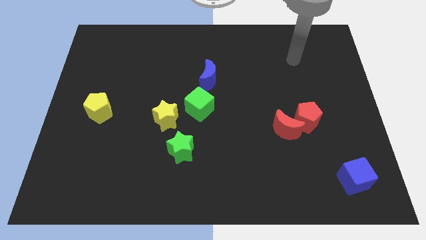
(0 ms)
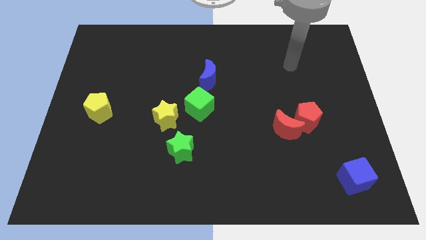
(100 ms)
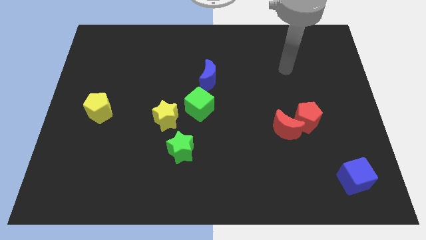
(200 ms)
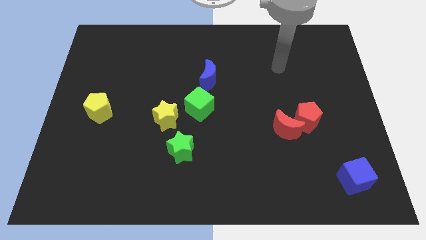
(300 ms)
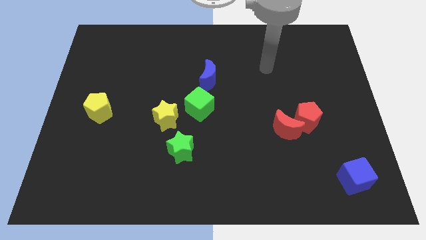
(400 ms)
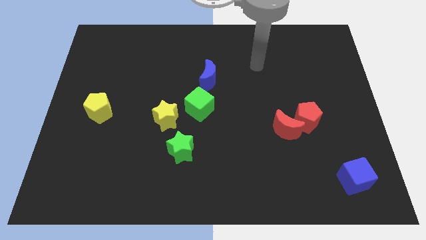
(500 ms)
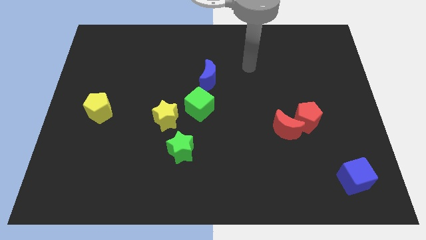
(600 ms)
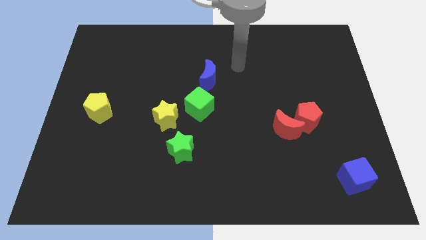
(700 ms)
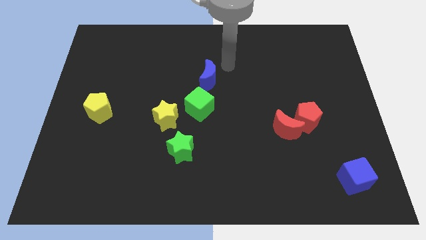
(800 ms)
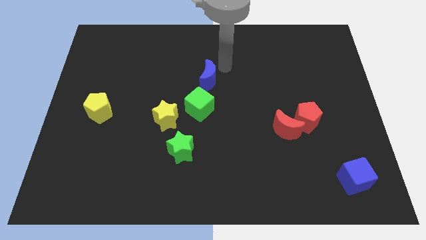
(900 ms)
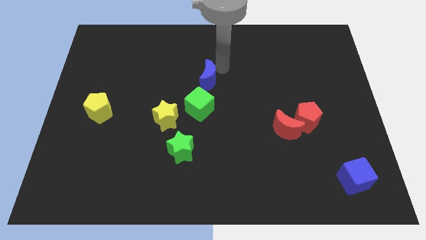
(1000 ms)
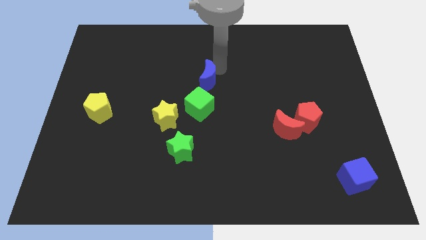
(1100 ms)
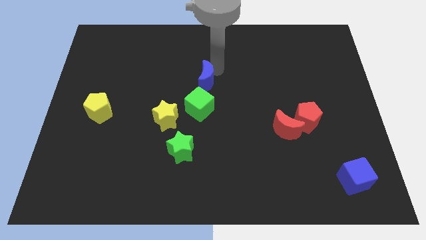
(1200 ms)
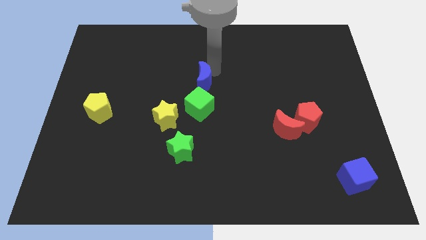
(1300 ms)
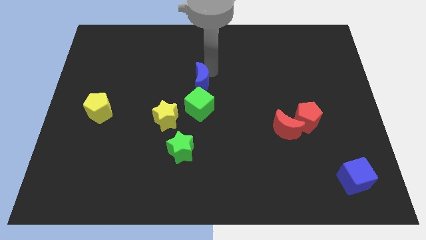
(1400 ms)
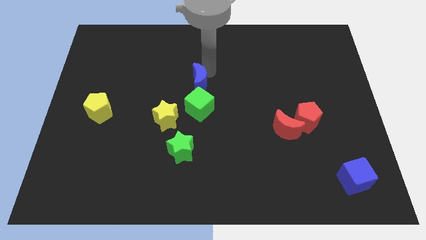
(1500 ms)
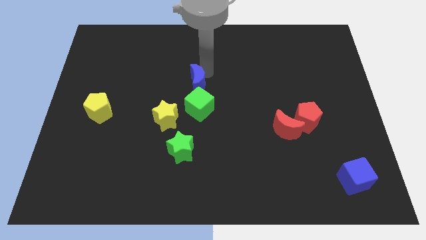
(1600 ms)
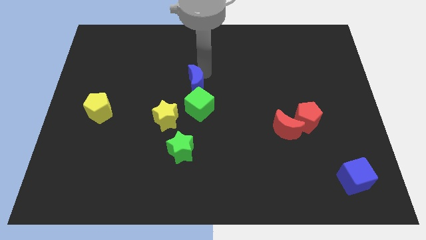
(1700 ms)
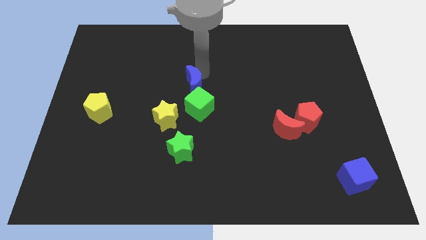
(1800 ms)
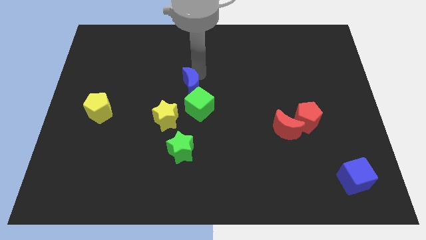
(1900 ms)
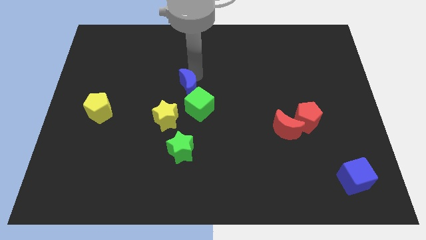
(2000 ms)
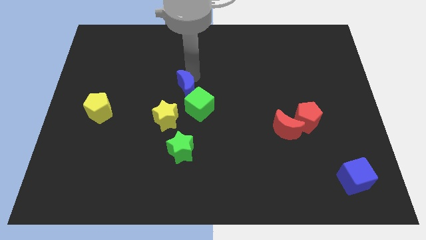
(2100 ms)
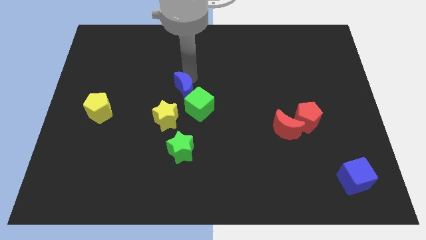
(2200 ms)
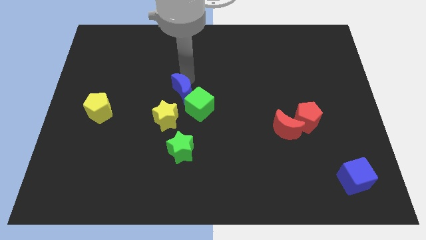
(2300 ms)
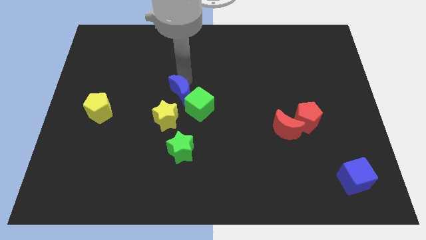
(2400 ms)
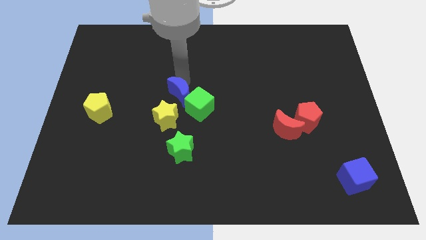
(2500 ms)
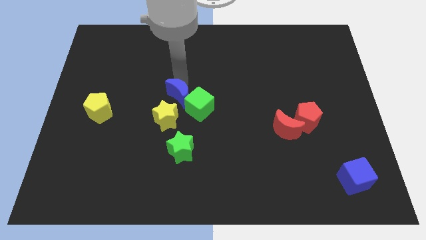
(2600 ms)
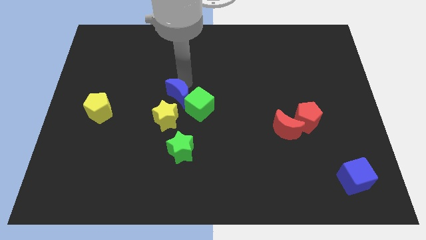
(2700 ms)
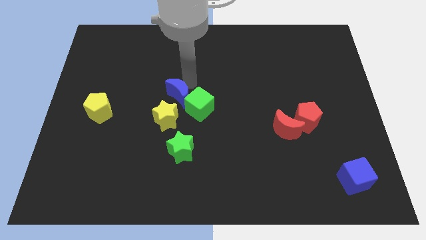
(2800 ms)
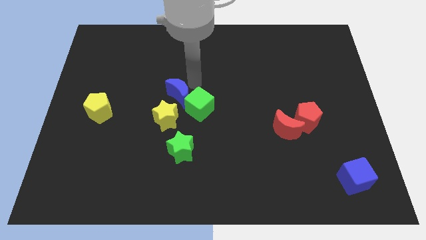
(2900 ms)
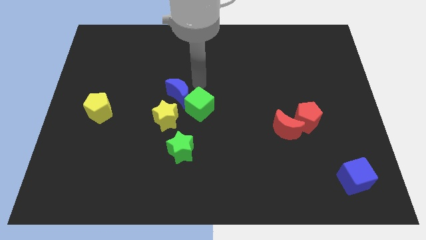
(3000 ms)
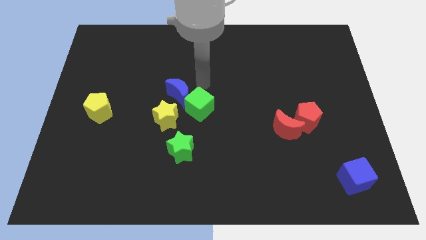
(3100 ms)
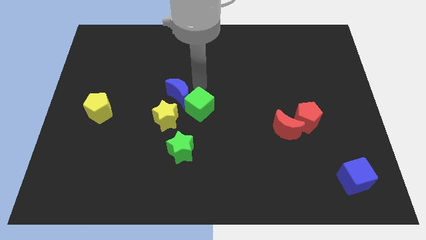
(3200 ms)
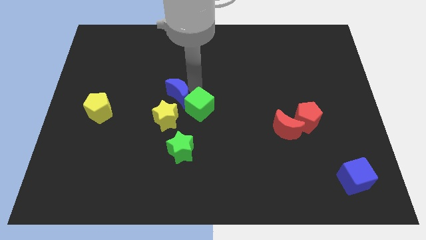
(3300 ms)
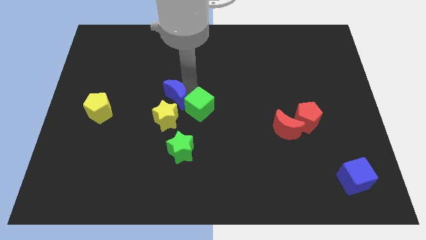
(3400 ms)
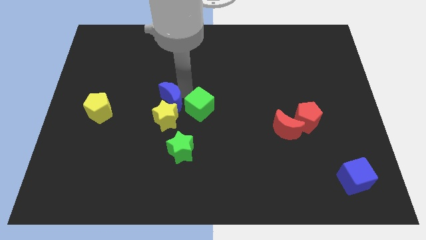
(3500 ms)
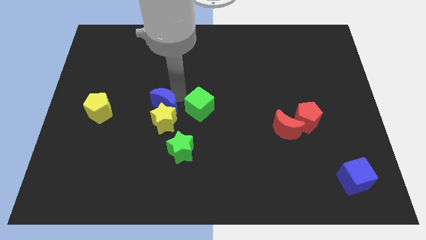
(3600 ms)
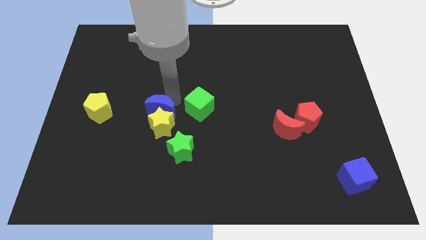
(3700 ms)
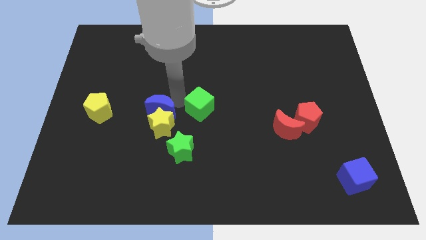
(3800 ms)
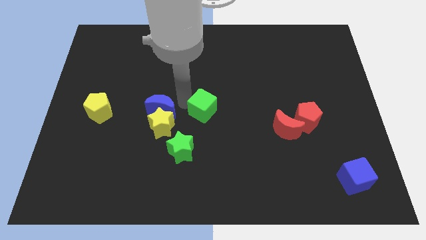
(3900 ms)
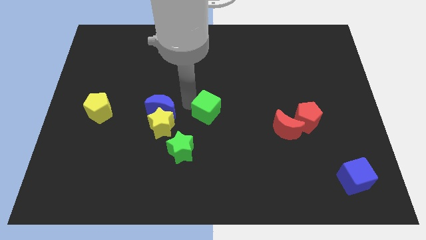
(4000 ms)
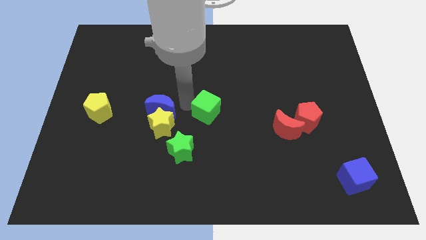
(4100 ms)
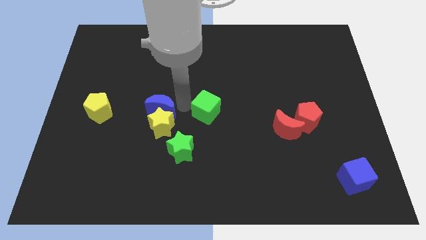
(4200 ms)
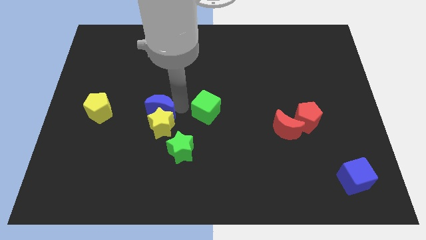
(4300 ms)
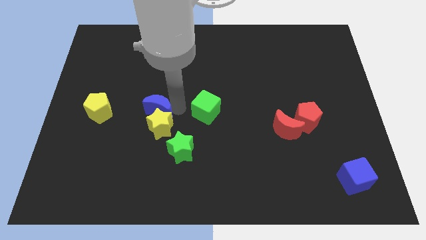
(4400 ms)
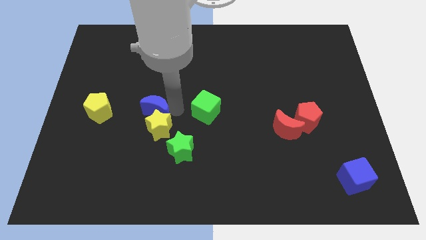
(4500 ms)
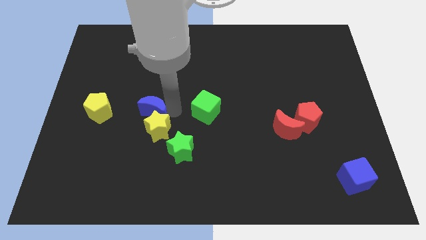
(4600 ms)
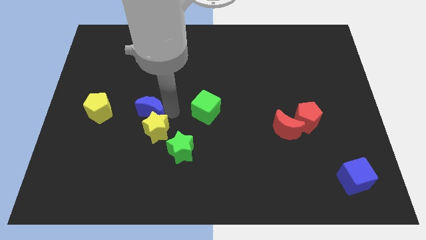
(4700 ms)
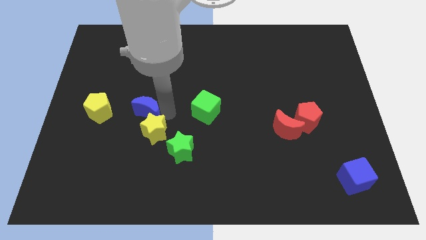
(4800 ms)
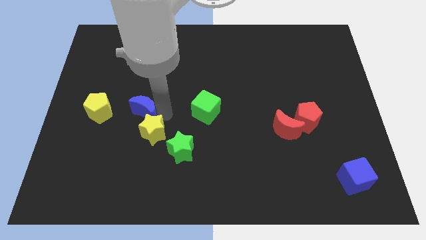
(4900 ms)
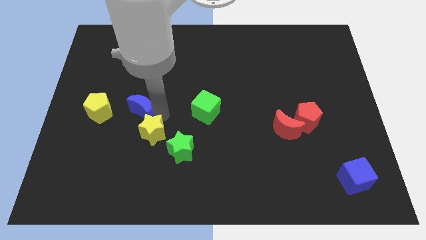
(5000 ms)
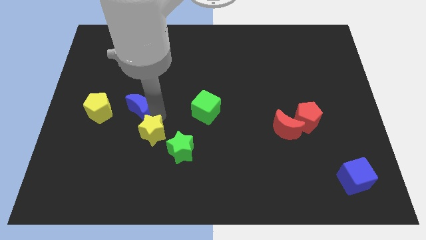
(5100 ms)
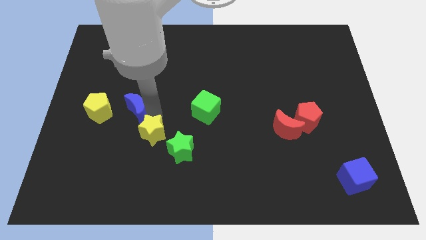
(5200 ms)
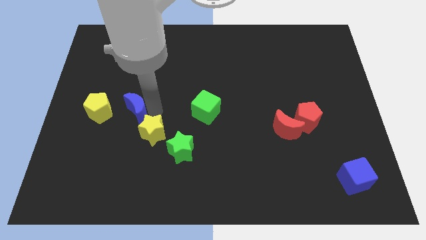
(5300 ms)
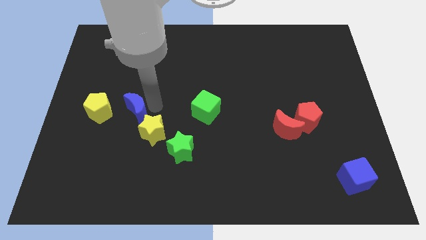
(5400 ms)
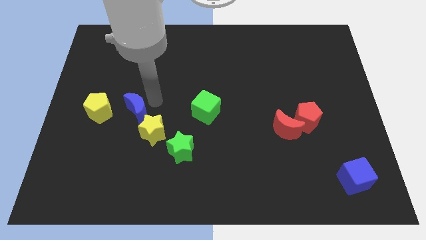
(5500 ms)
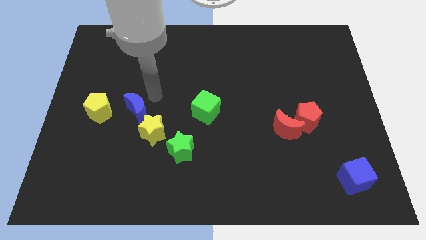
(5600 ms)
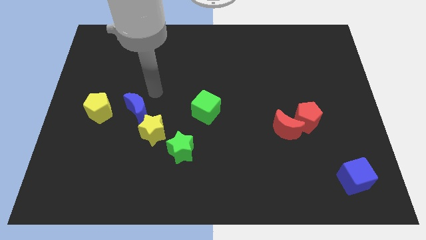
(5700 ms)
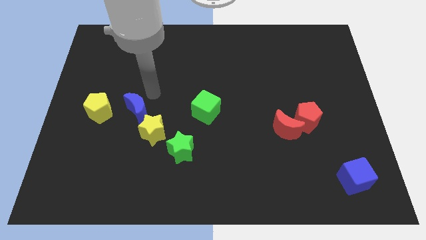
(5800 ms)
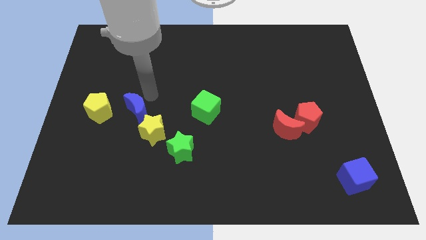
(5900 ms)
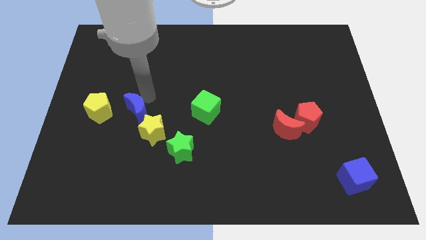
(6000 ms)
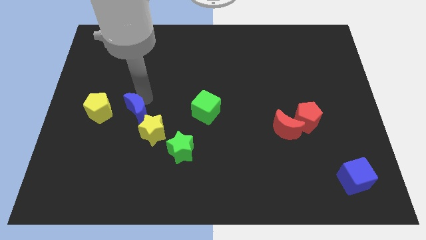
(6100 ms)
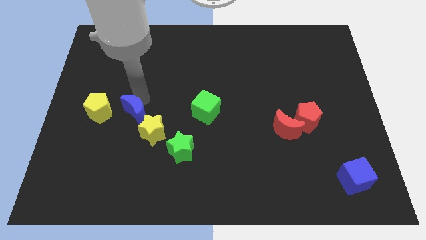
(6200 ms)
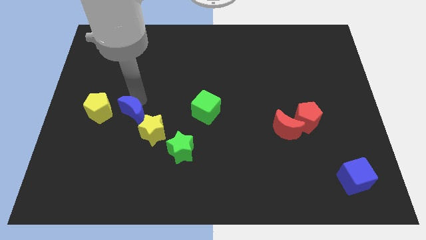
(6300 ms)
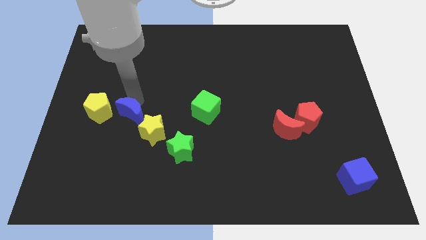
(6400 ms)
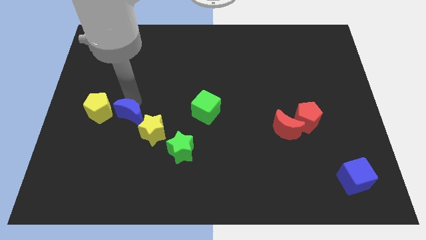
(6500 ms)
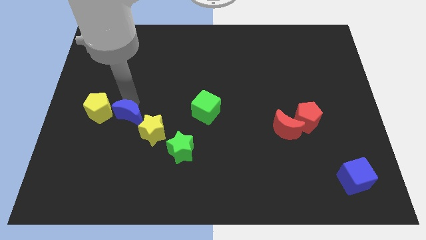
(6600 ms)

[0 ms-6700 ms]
move the blue moon down and left

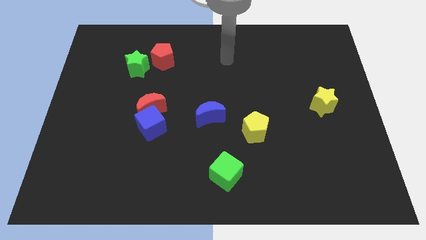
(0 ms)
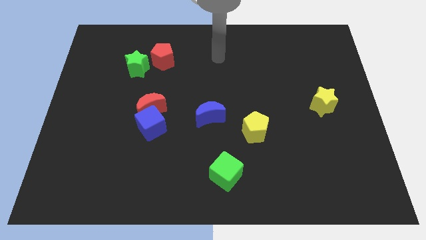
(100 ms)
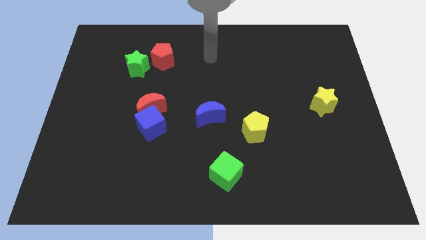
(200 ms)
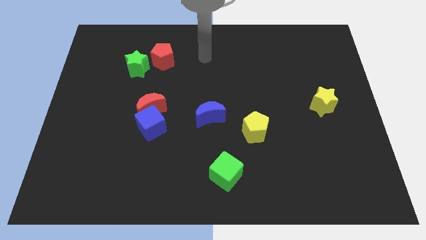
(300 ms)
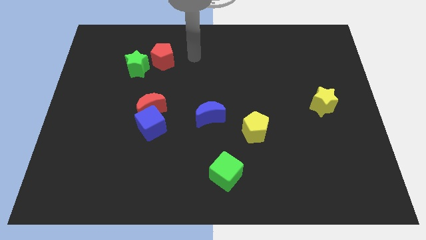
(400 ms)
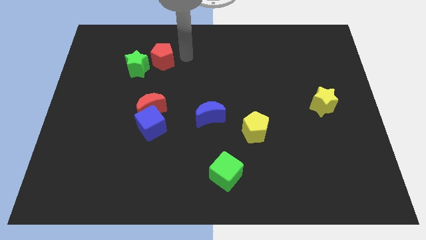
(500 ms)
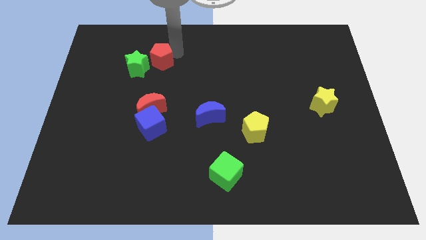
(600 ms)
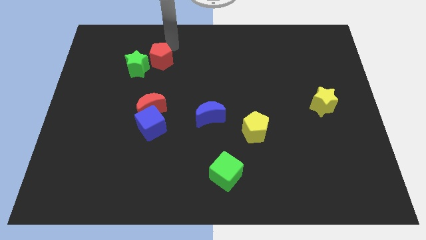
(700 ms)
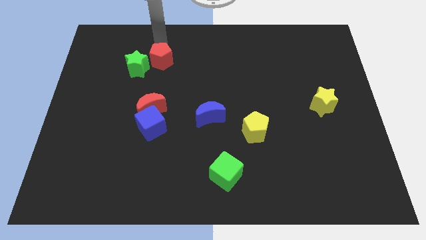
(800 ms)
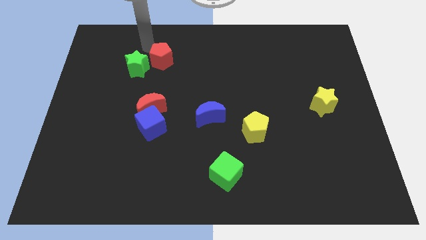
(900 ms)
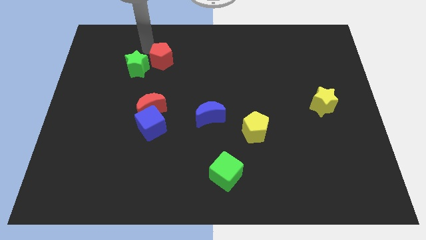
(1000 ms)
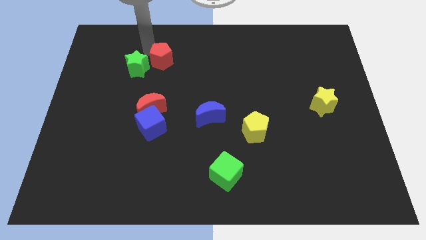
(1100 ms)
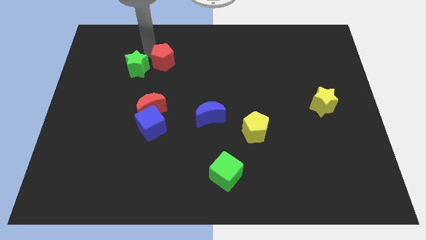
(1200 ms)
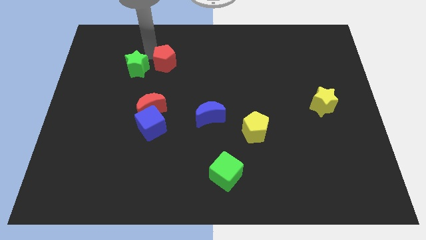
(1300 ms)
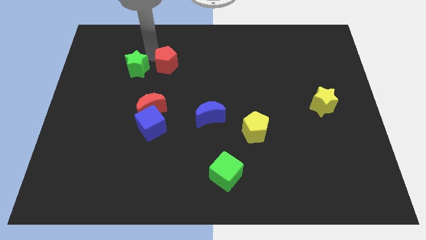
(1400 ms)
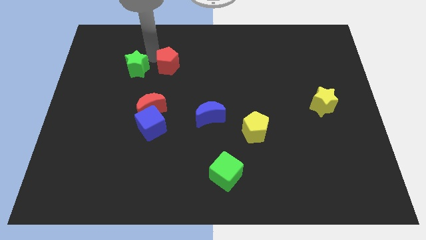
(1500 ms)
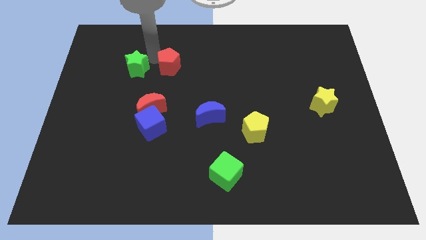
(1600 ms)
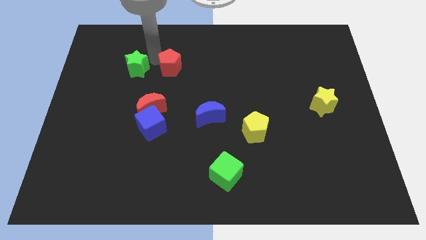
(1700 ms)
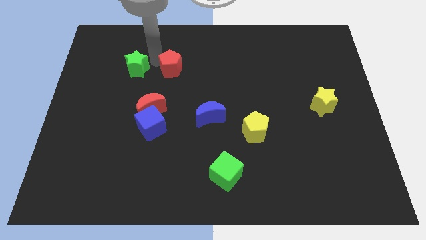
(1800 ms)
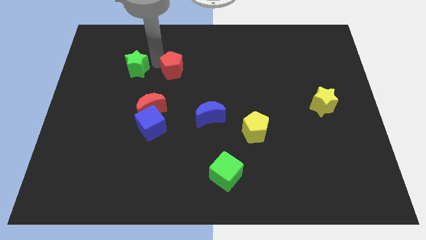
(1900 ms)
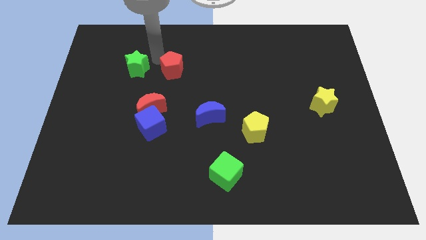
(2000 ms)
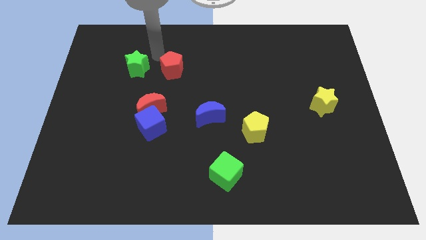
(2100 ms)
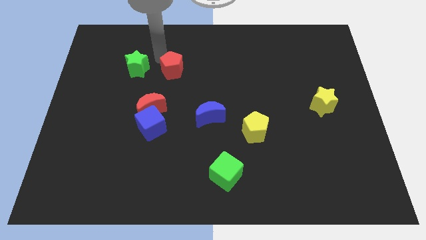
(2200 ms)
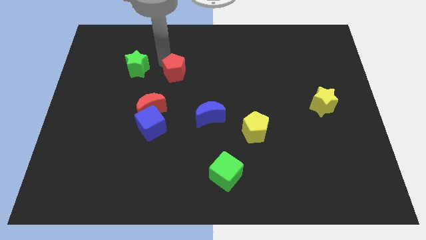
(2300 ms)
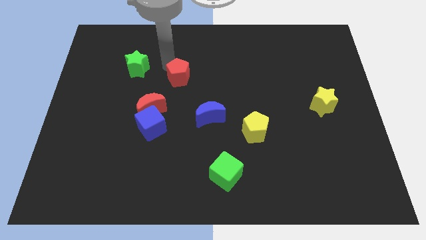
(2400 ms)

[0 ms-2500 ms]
push the red pentagon diagonally down and to the right a little
